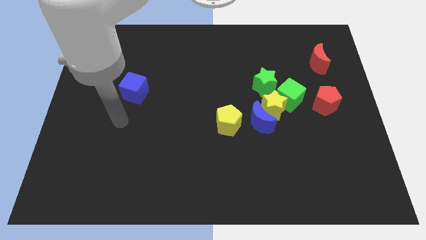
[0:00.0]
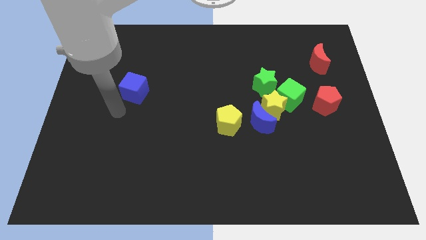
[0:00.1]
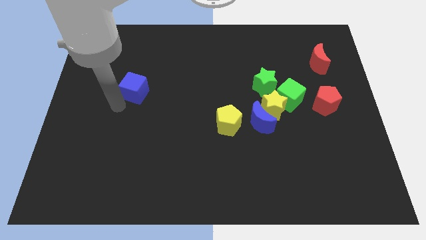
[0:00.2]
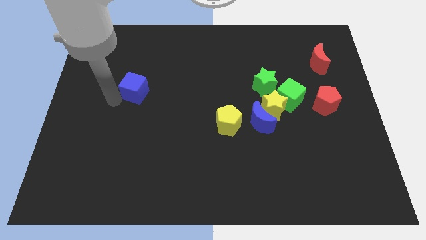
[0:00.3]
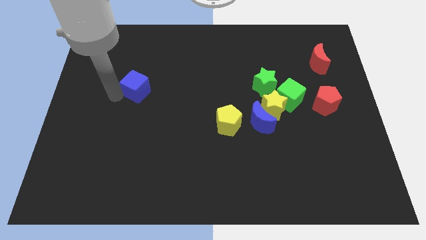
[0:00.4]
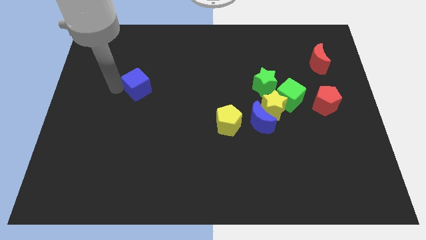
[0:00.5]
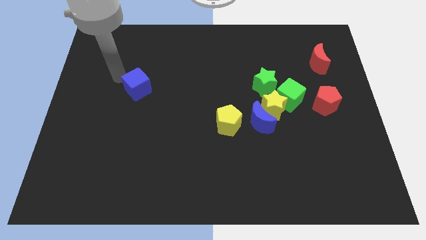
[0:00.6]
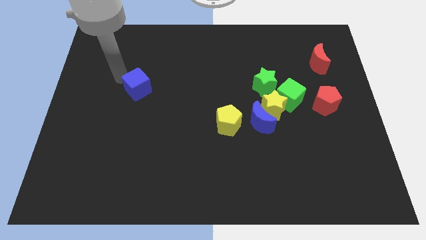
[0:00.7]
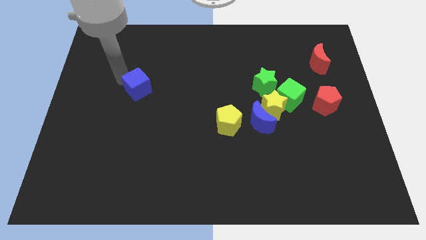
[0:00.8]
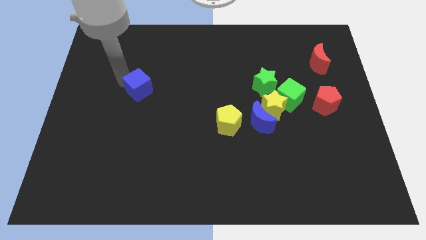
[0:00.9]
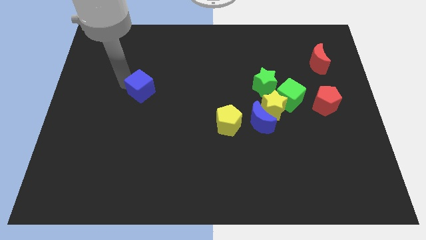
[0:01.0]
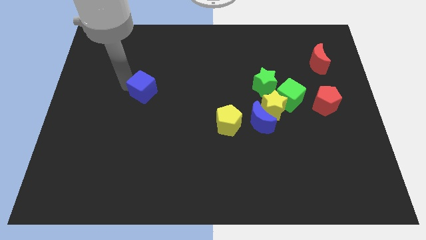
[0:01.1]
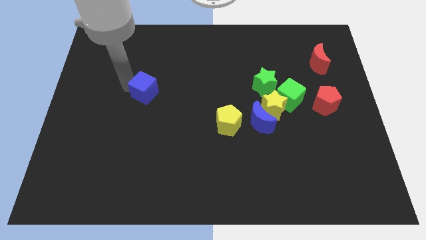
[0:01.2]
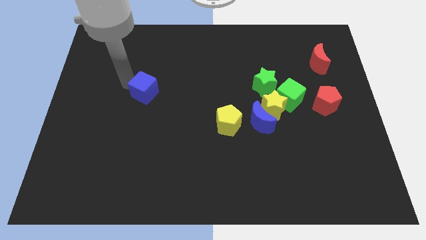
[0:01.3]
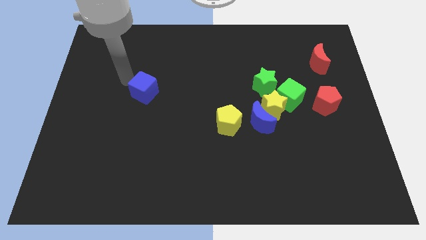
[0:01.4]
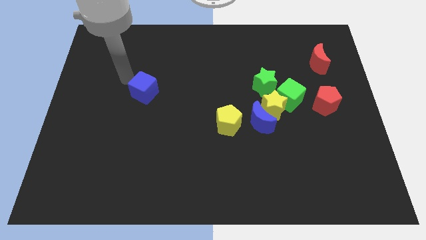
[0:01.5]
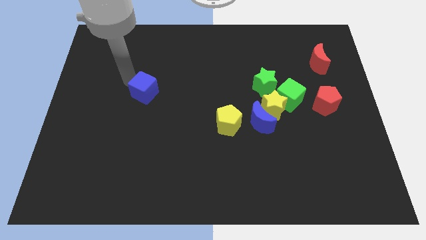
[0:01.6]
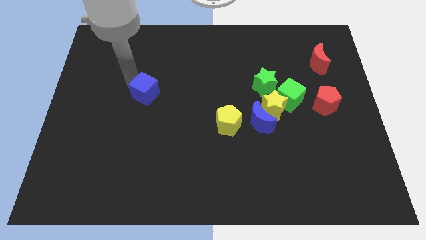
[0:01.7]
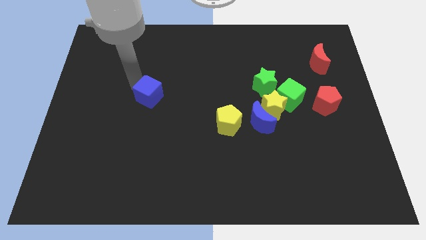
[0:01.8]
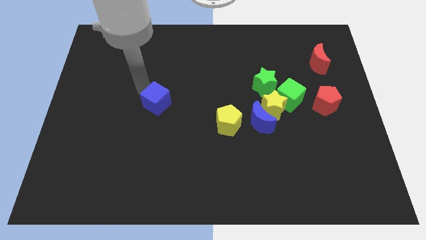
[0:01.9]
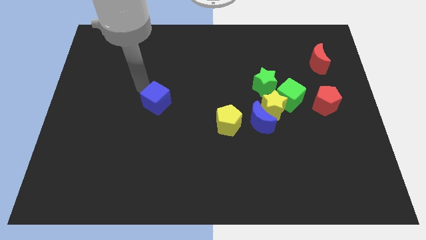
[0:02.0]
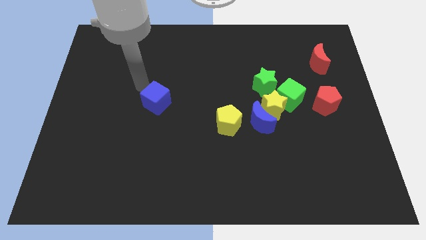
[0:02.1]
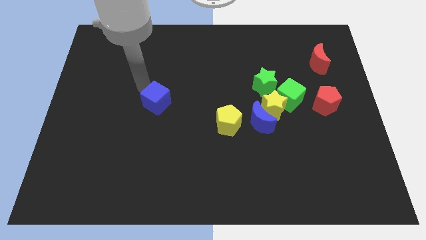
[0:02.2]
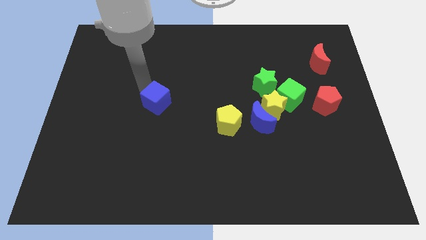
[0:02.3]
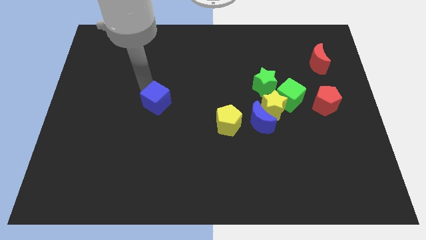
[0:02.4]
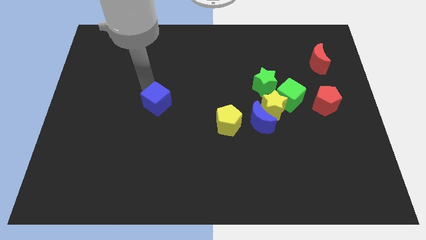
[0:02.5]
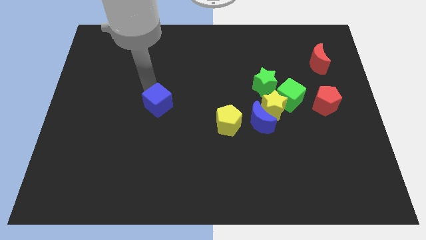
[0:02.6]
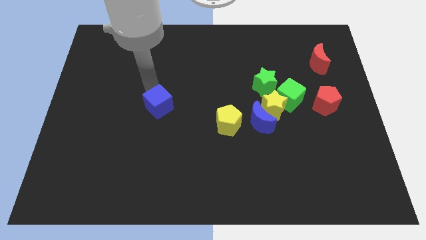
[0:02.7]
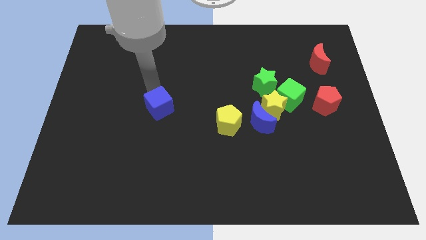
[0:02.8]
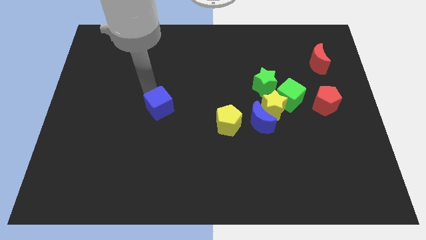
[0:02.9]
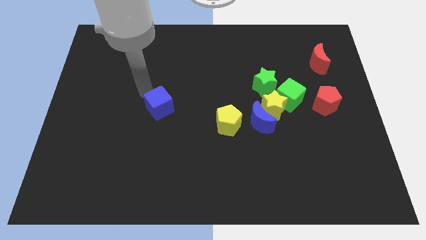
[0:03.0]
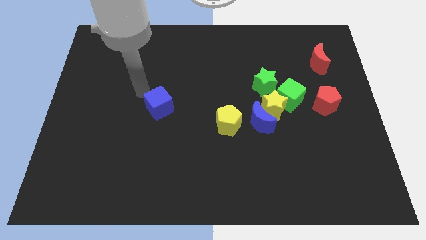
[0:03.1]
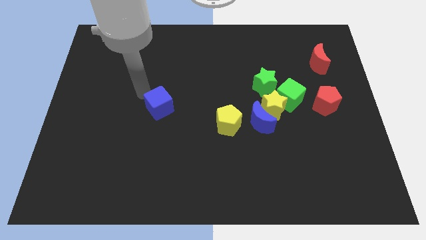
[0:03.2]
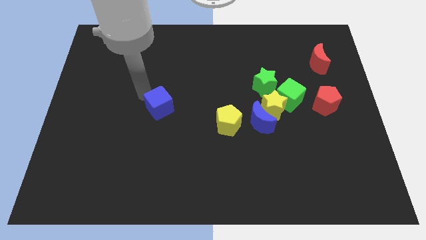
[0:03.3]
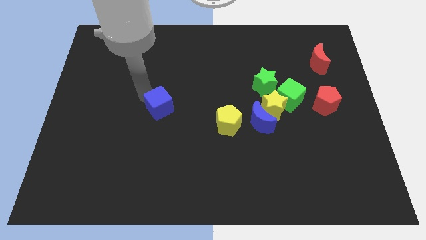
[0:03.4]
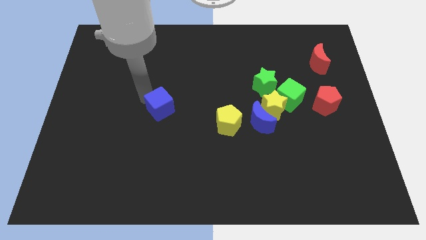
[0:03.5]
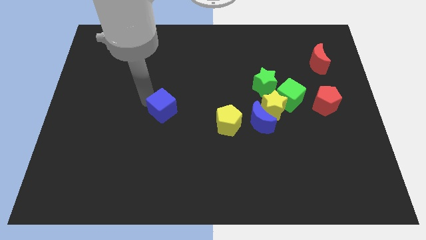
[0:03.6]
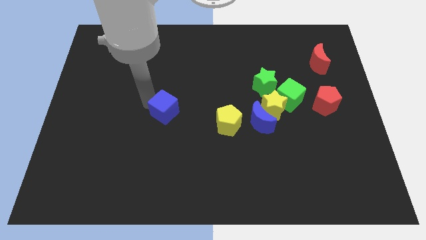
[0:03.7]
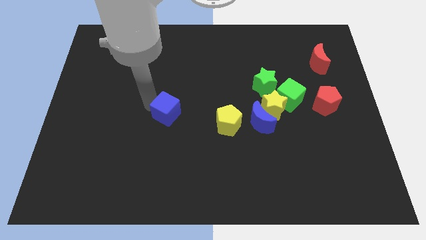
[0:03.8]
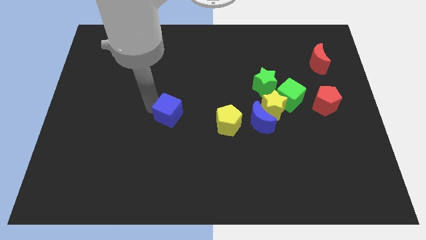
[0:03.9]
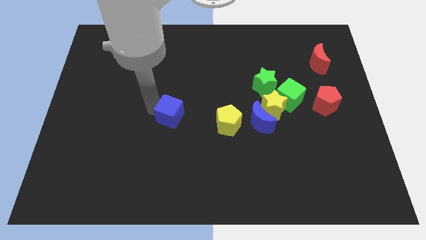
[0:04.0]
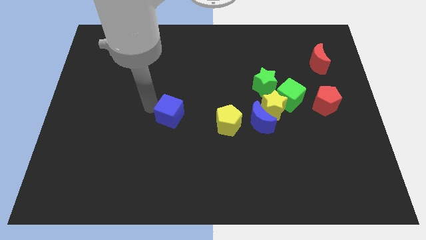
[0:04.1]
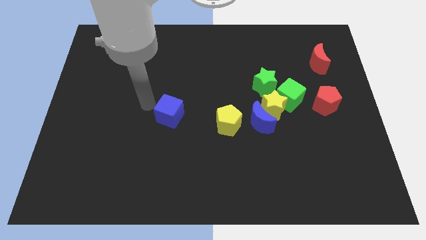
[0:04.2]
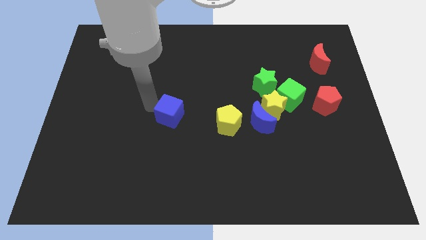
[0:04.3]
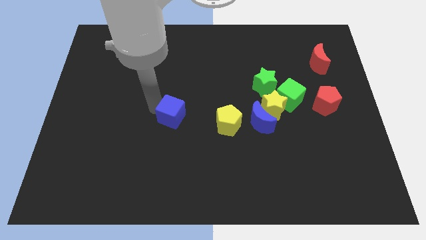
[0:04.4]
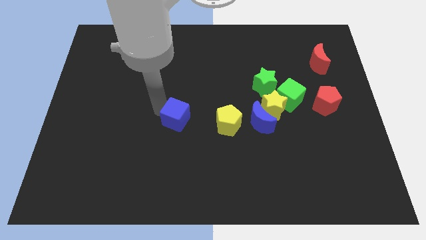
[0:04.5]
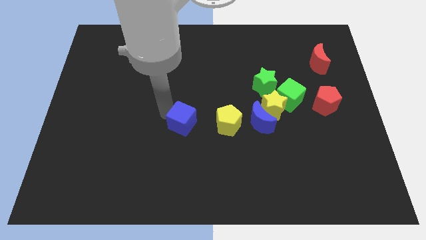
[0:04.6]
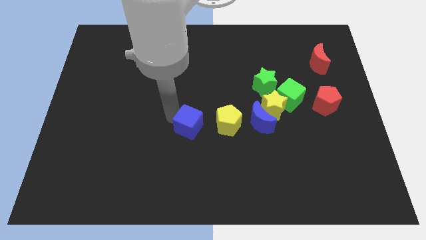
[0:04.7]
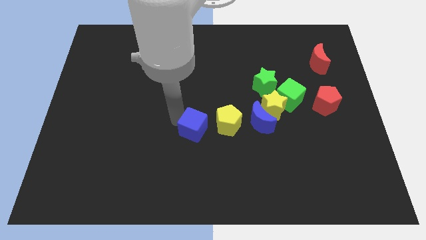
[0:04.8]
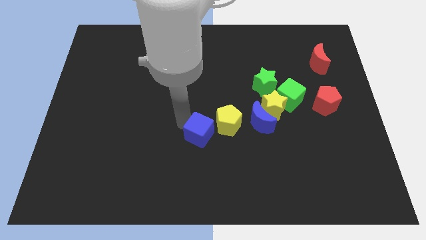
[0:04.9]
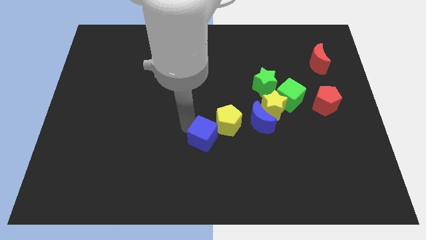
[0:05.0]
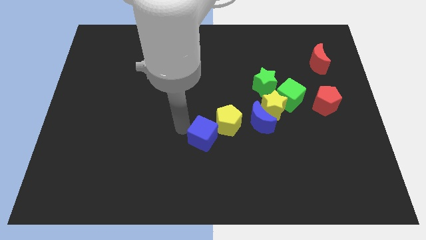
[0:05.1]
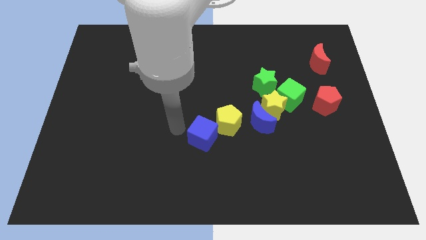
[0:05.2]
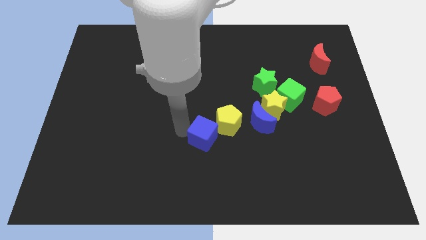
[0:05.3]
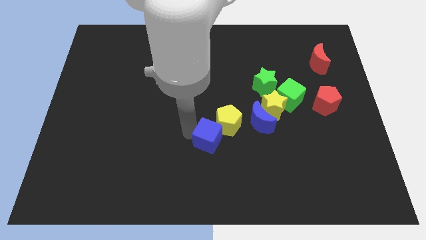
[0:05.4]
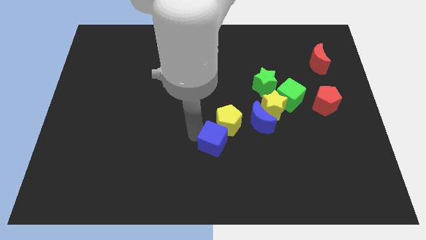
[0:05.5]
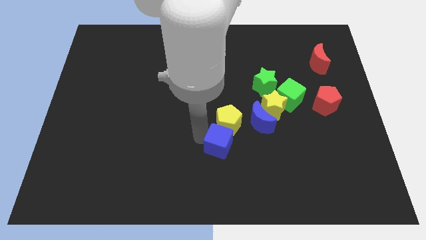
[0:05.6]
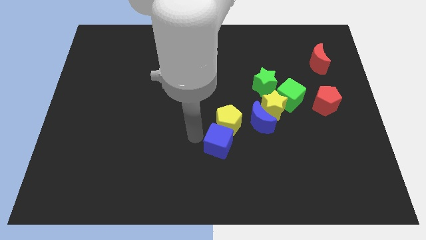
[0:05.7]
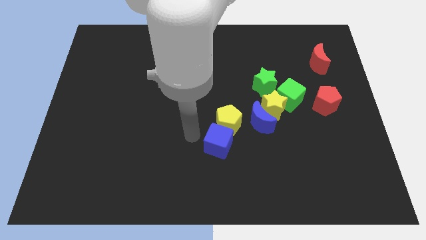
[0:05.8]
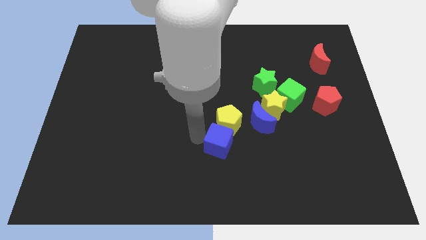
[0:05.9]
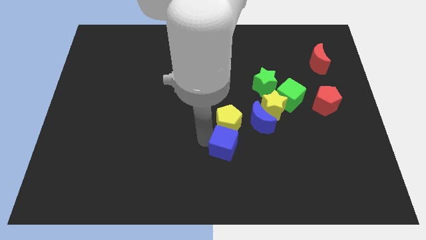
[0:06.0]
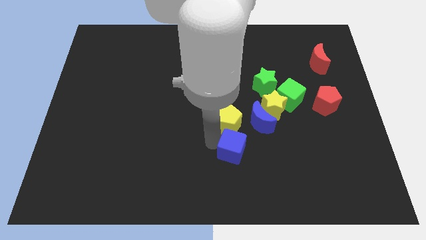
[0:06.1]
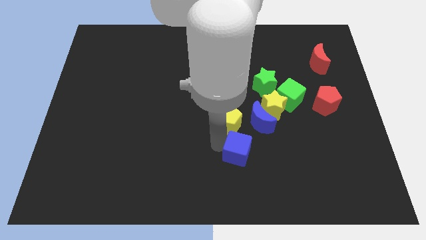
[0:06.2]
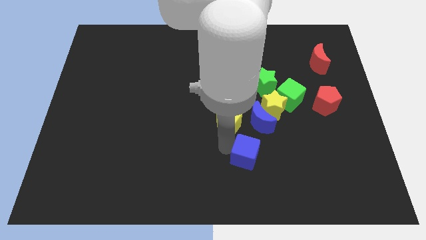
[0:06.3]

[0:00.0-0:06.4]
push the blue cube to the bottom side of the blue moon
